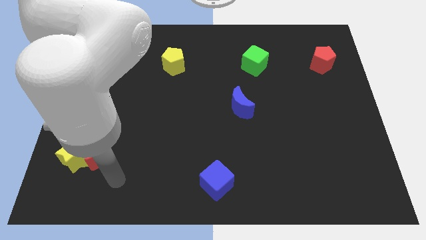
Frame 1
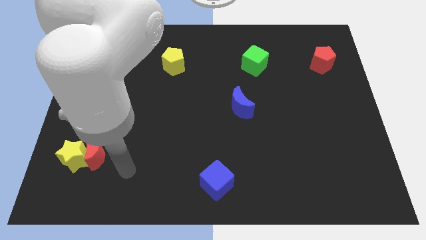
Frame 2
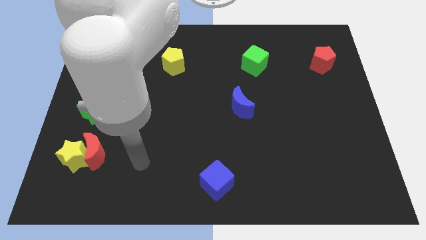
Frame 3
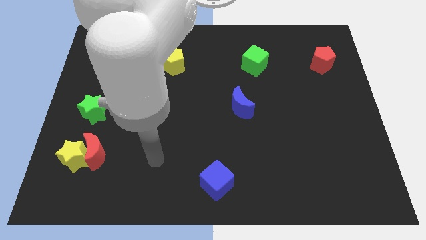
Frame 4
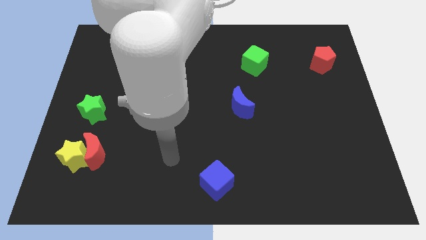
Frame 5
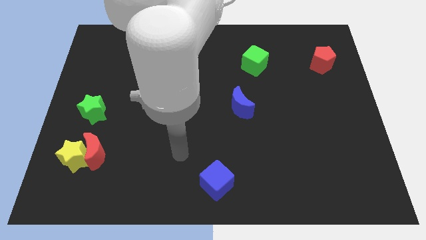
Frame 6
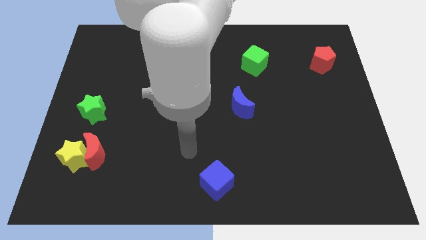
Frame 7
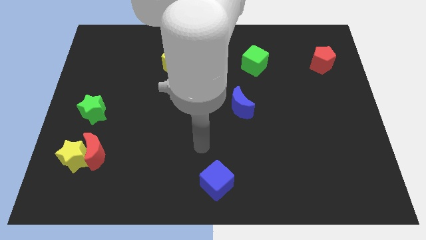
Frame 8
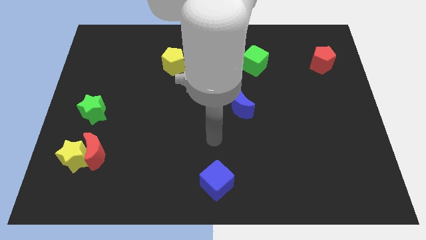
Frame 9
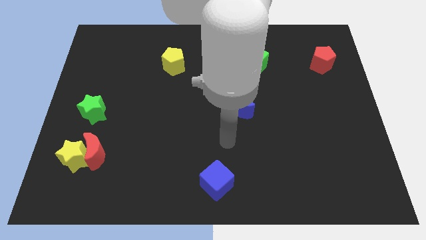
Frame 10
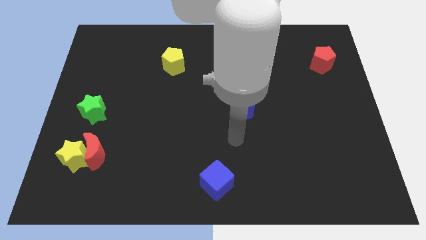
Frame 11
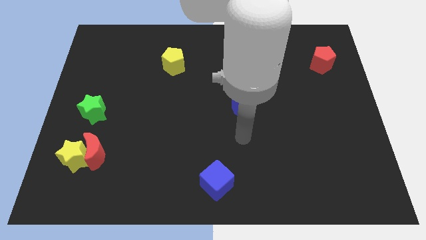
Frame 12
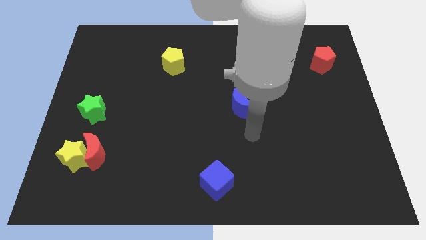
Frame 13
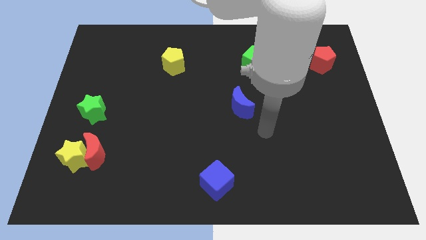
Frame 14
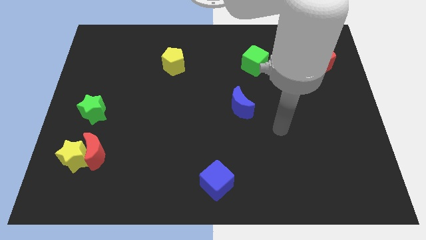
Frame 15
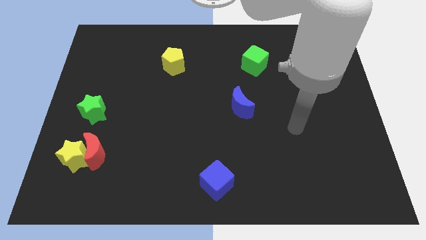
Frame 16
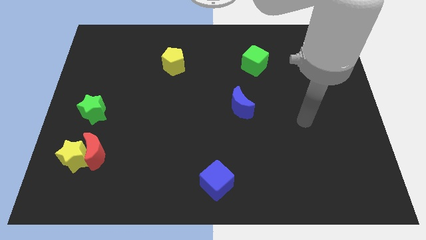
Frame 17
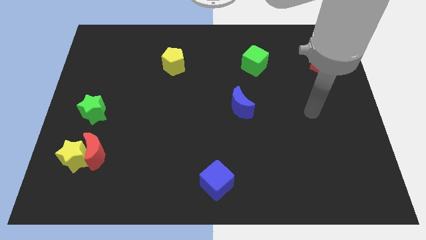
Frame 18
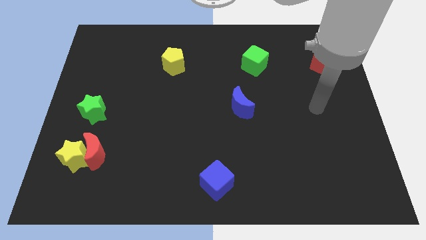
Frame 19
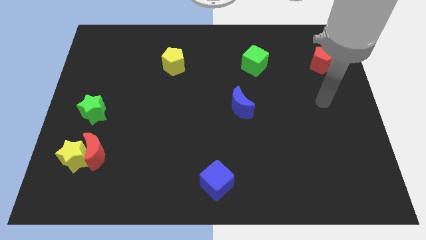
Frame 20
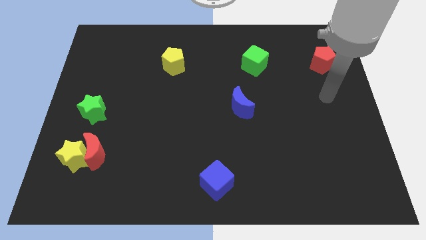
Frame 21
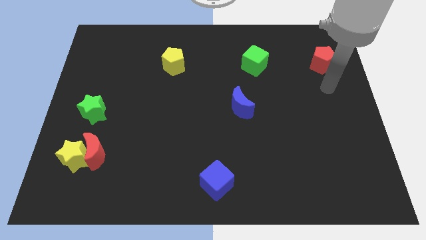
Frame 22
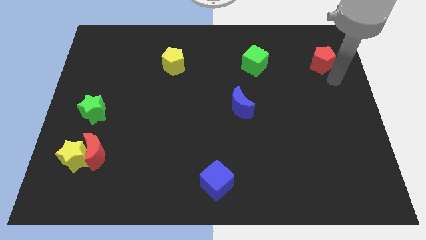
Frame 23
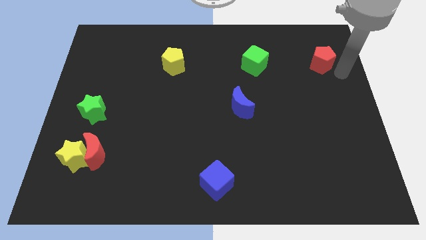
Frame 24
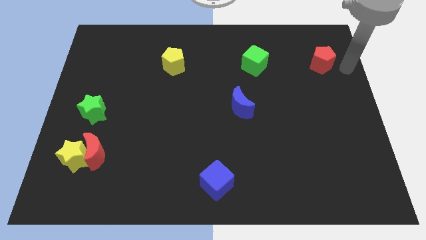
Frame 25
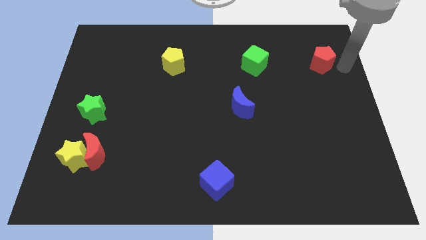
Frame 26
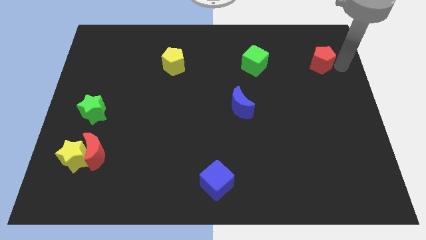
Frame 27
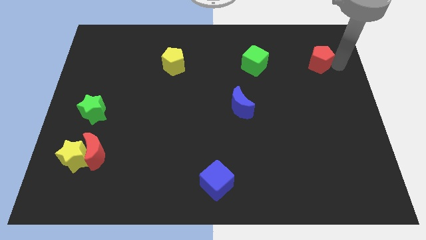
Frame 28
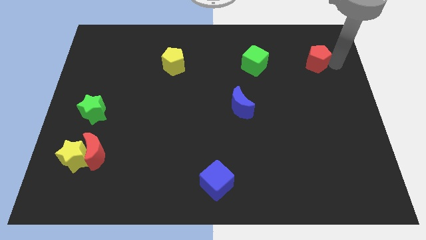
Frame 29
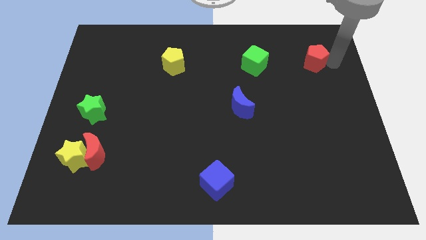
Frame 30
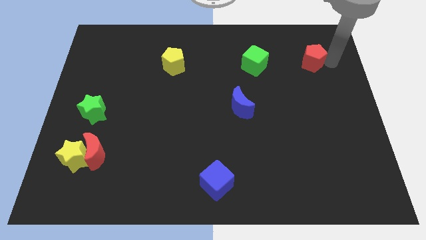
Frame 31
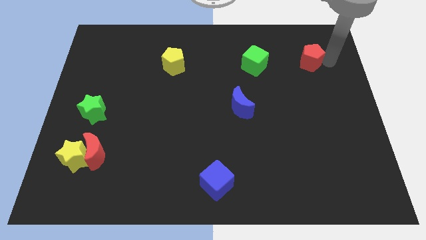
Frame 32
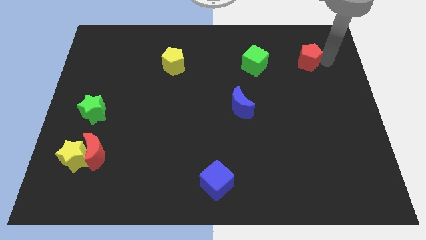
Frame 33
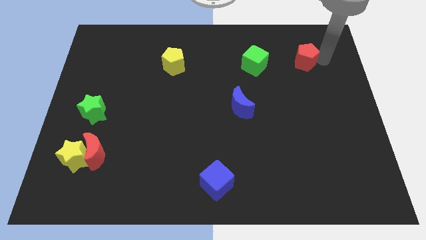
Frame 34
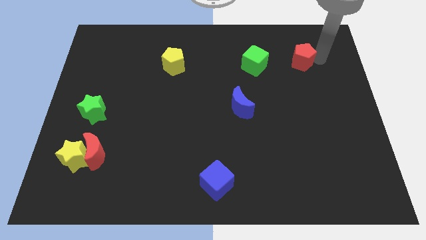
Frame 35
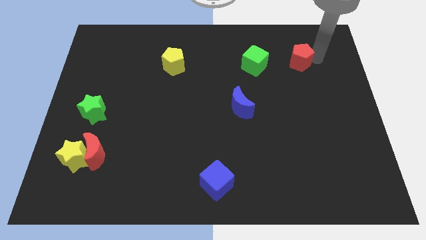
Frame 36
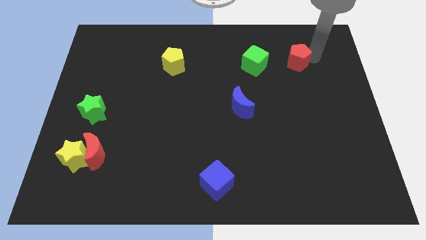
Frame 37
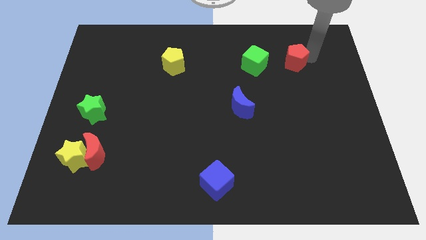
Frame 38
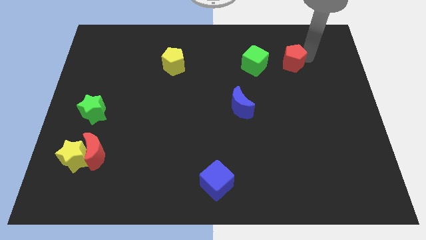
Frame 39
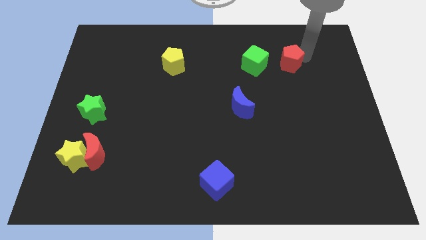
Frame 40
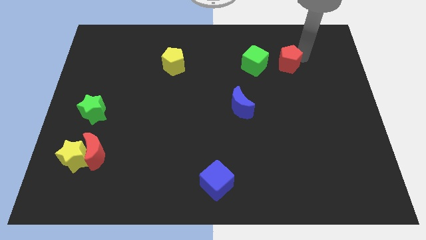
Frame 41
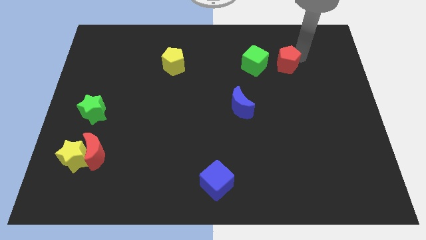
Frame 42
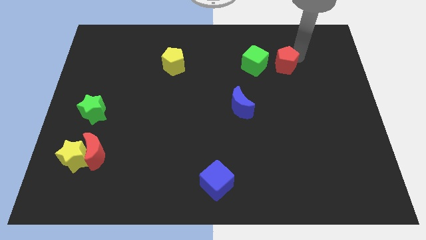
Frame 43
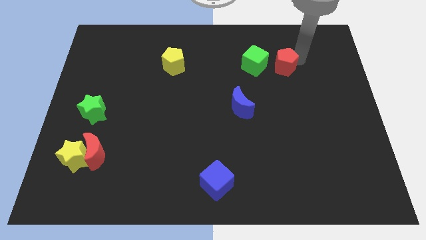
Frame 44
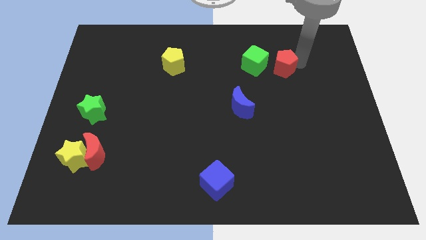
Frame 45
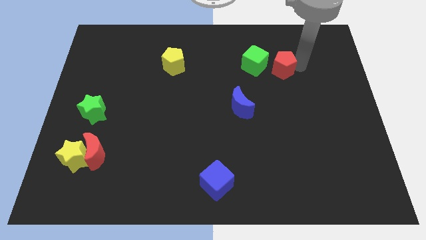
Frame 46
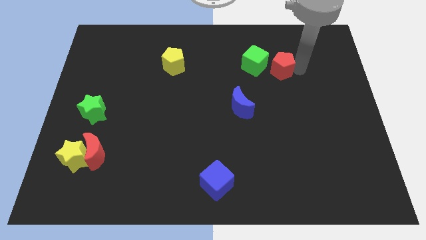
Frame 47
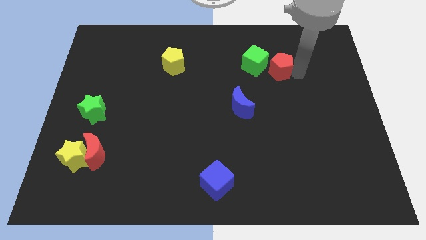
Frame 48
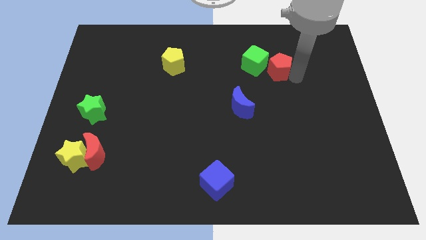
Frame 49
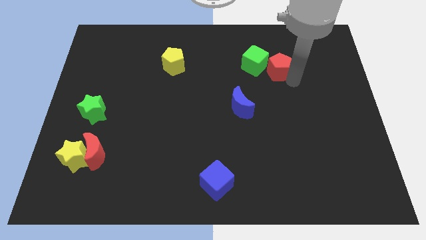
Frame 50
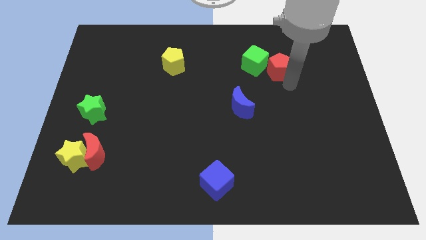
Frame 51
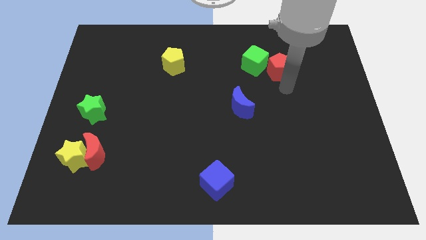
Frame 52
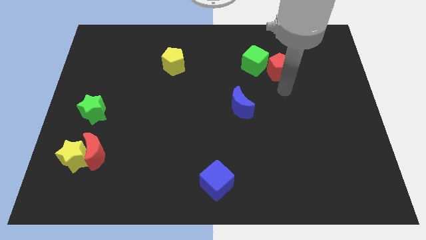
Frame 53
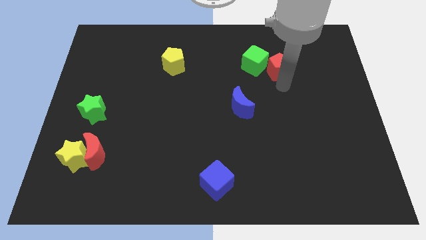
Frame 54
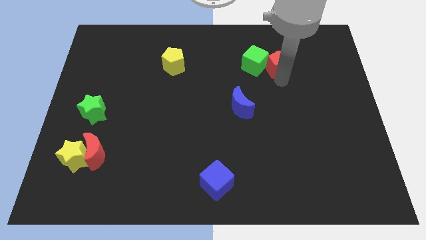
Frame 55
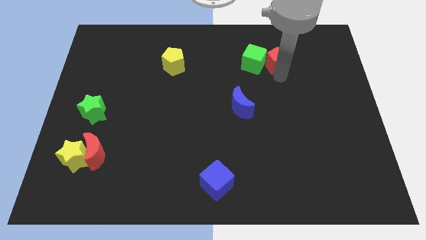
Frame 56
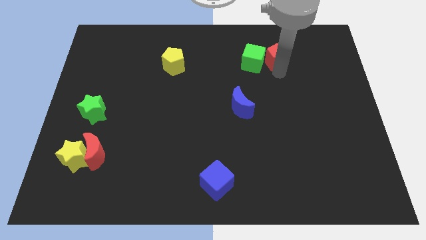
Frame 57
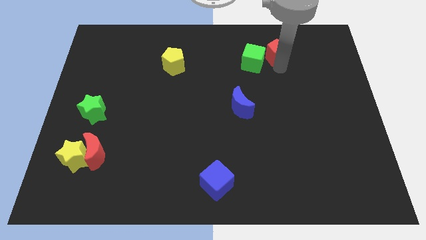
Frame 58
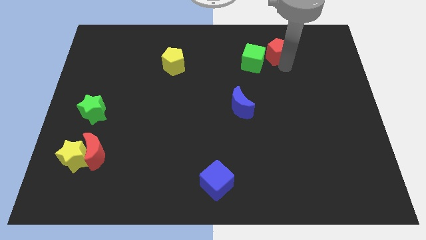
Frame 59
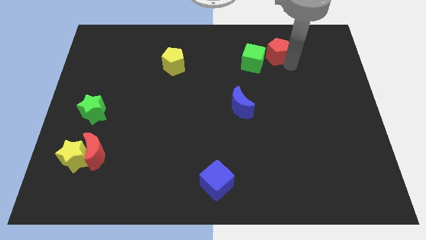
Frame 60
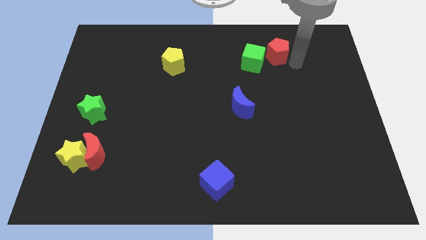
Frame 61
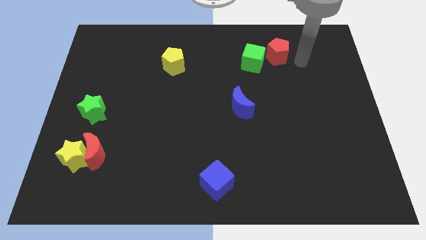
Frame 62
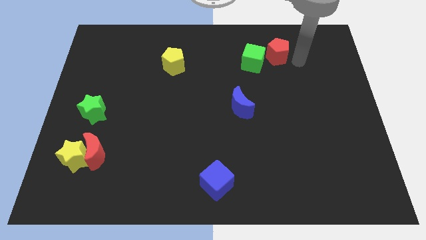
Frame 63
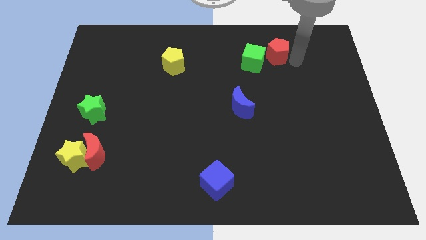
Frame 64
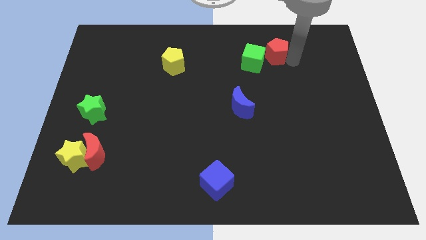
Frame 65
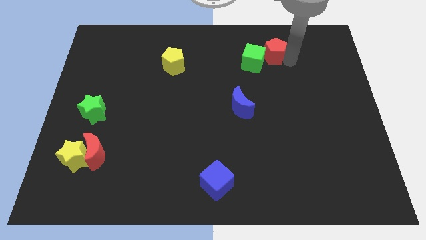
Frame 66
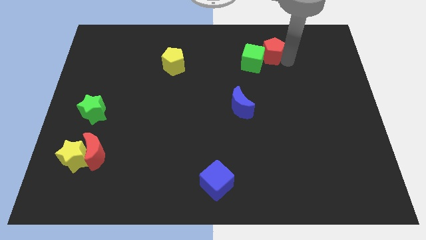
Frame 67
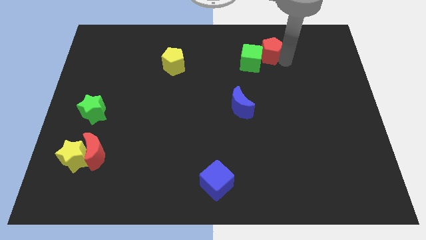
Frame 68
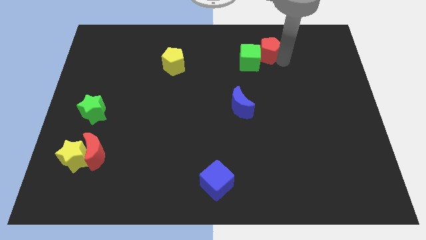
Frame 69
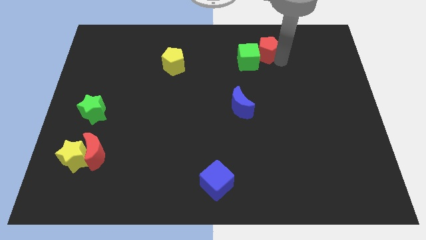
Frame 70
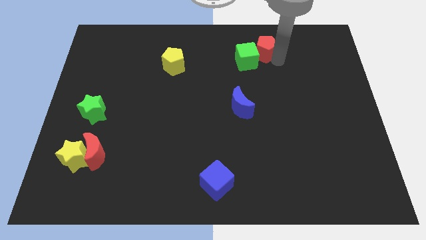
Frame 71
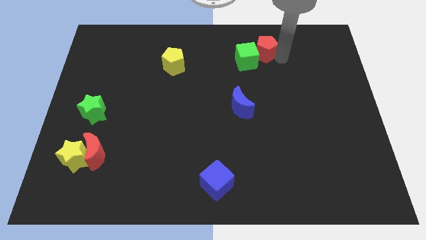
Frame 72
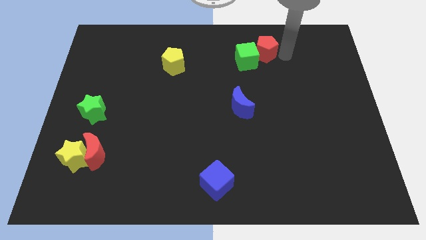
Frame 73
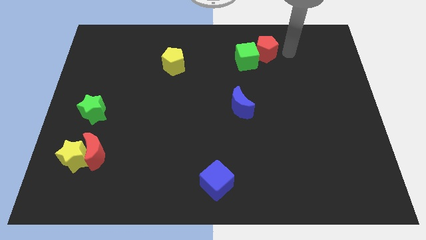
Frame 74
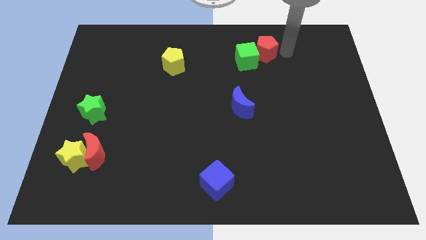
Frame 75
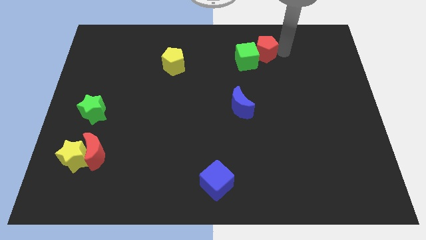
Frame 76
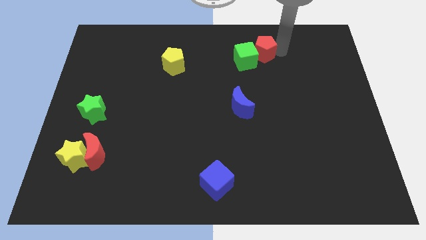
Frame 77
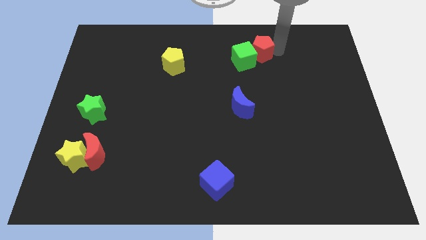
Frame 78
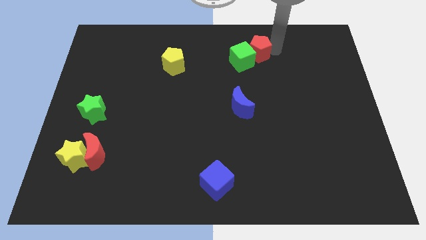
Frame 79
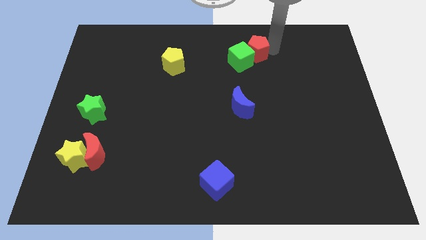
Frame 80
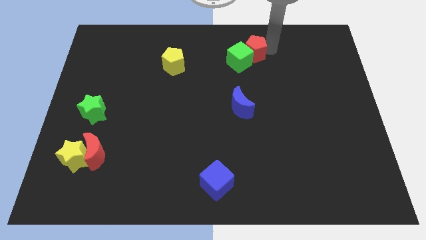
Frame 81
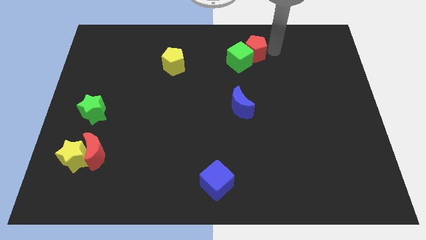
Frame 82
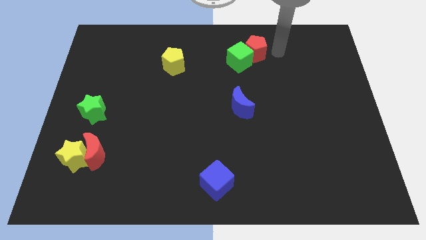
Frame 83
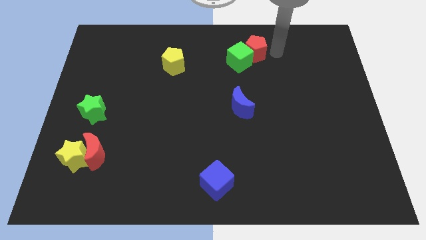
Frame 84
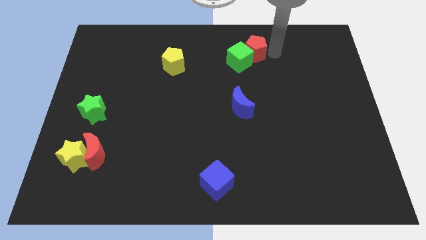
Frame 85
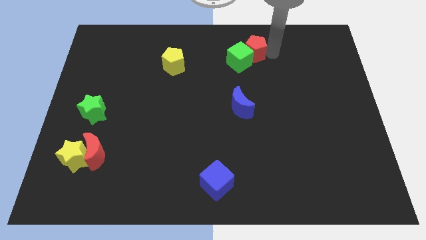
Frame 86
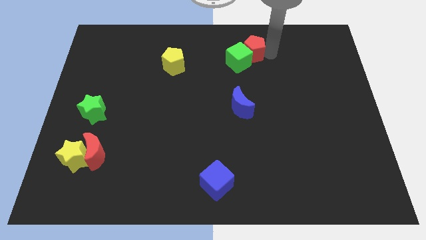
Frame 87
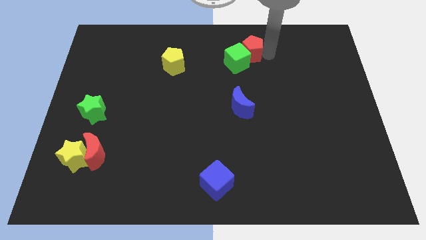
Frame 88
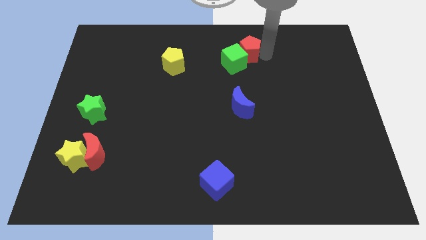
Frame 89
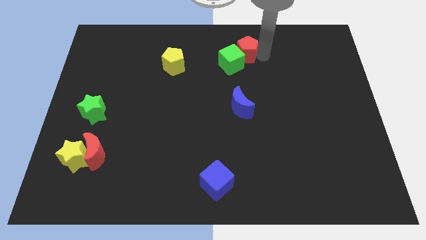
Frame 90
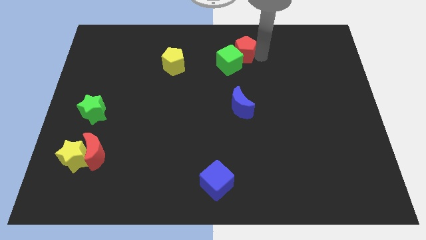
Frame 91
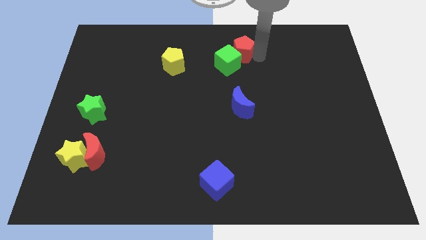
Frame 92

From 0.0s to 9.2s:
push the red pentagon to the left
